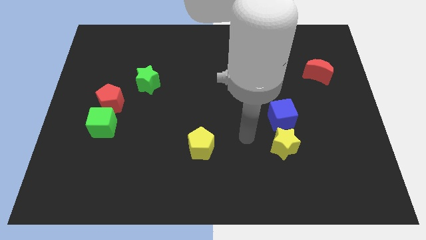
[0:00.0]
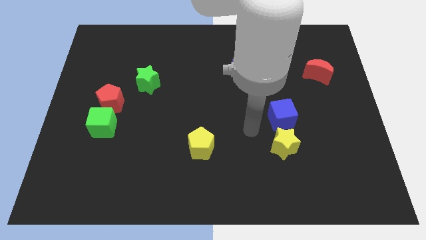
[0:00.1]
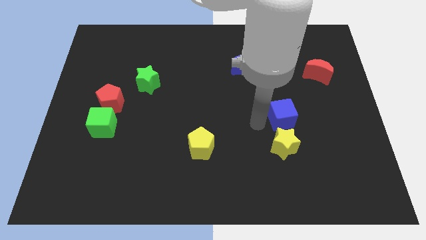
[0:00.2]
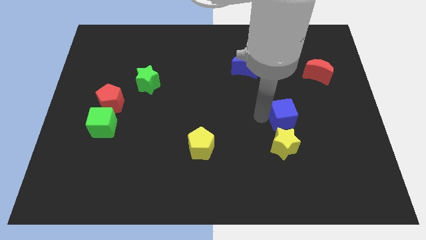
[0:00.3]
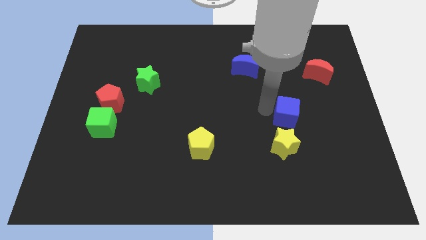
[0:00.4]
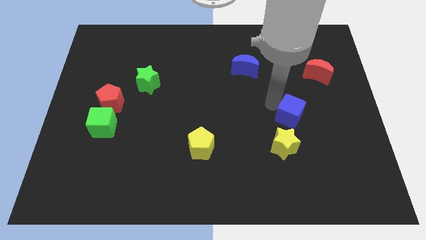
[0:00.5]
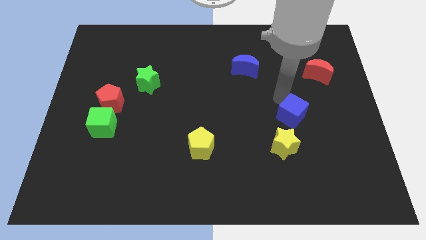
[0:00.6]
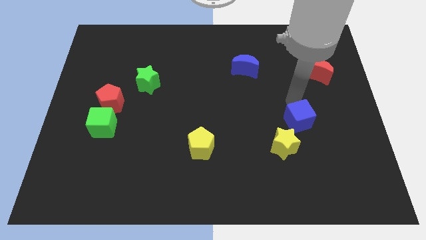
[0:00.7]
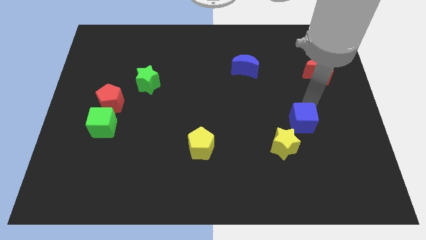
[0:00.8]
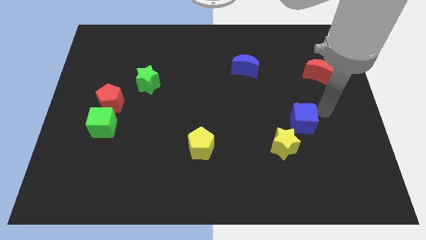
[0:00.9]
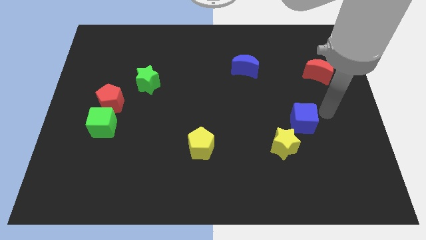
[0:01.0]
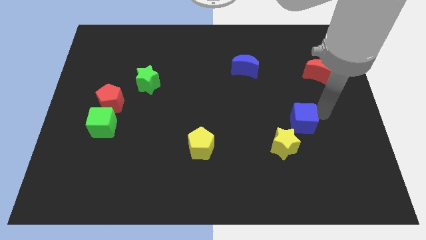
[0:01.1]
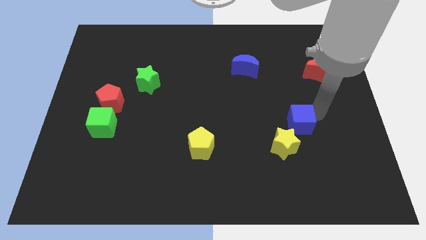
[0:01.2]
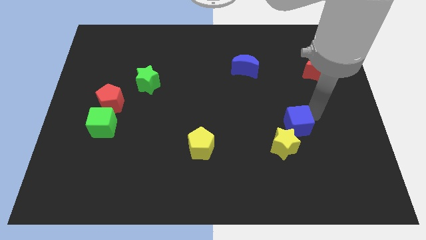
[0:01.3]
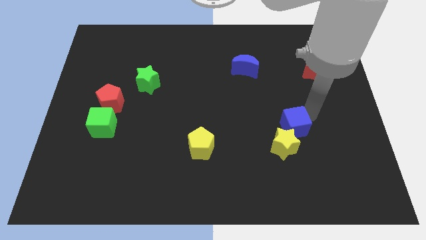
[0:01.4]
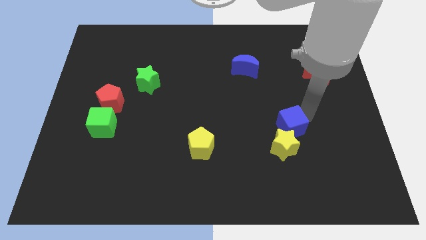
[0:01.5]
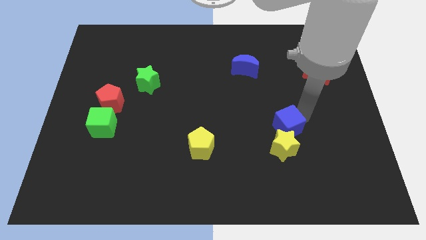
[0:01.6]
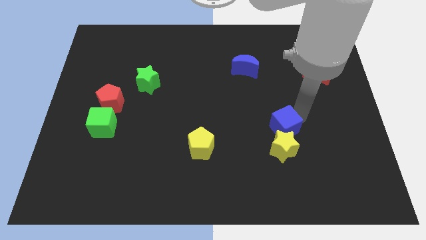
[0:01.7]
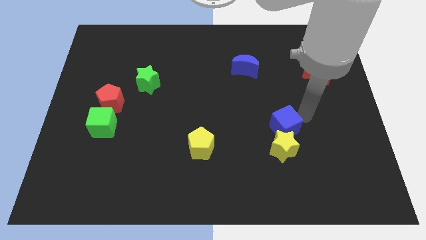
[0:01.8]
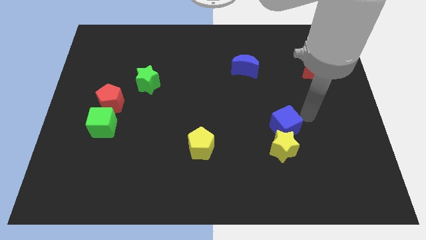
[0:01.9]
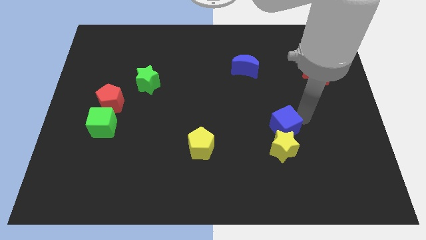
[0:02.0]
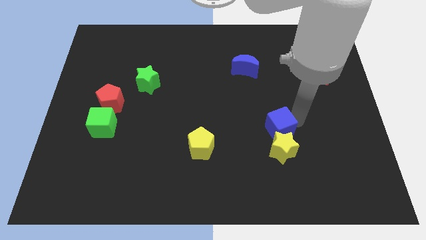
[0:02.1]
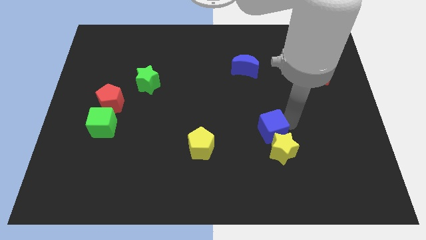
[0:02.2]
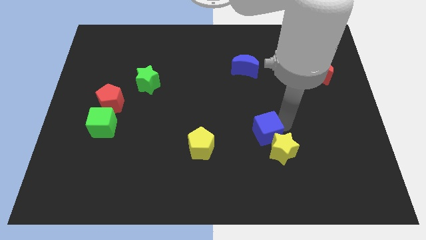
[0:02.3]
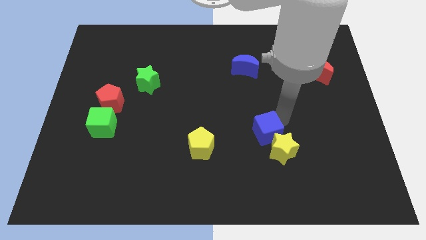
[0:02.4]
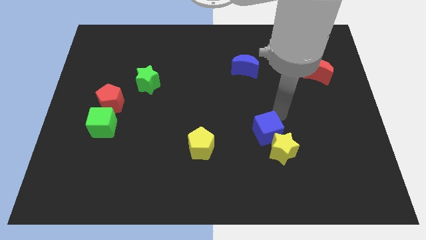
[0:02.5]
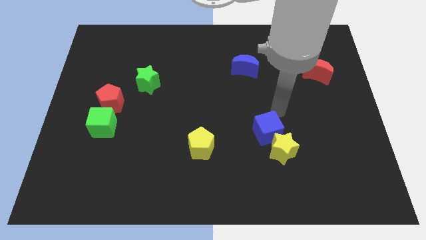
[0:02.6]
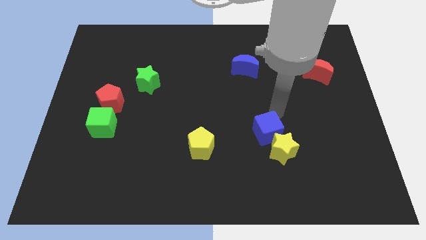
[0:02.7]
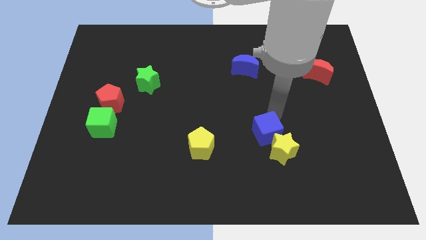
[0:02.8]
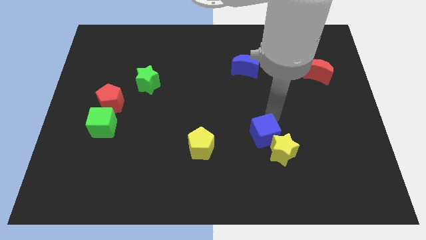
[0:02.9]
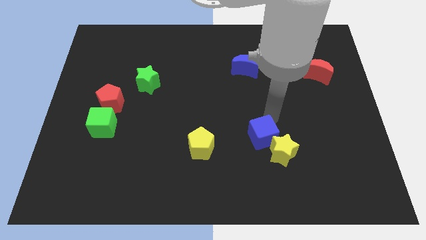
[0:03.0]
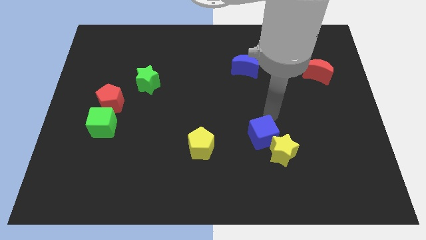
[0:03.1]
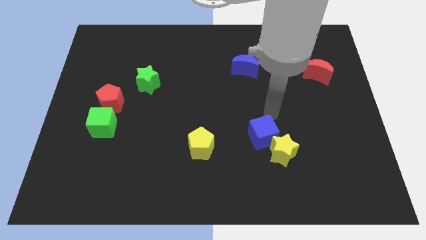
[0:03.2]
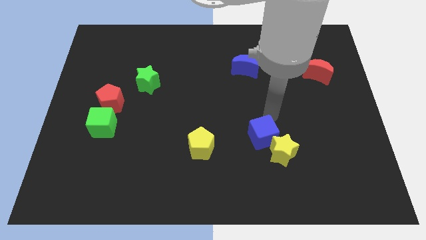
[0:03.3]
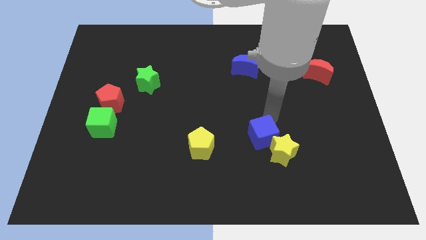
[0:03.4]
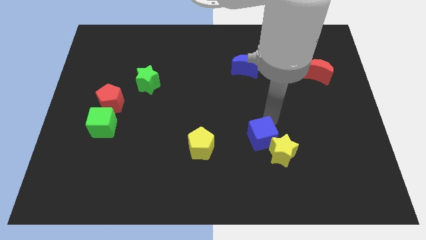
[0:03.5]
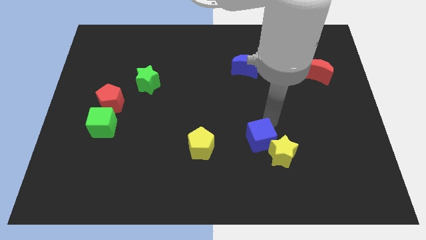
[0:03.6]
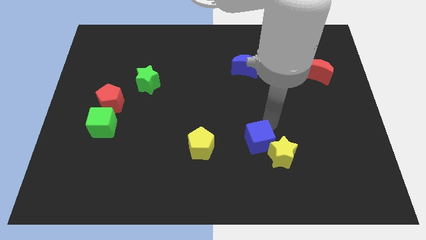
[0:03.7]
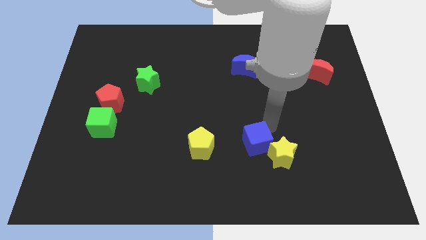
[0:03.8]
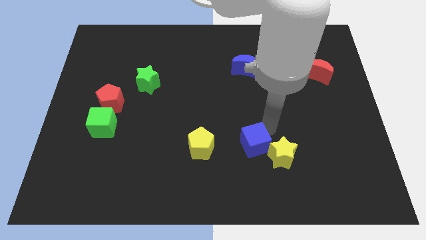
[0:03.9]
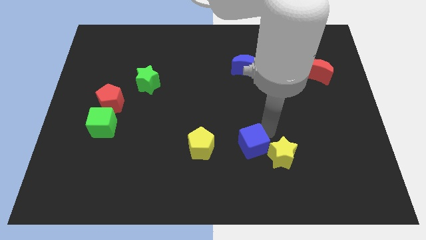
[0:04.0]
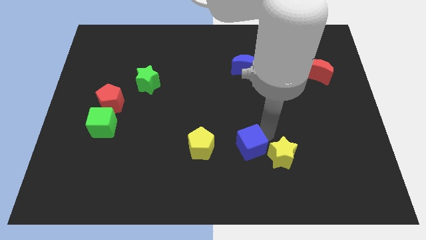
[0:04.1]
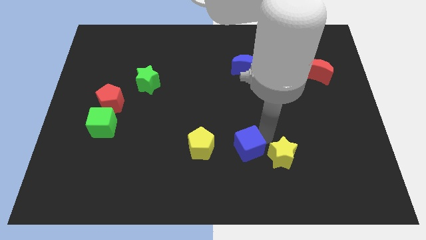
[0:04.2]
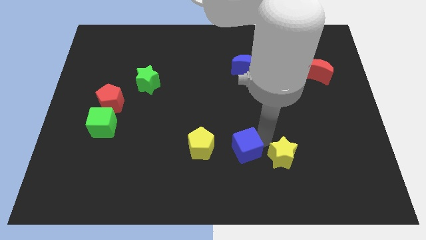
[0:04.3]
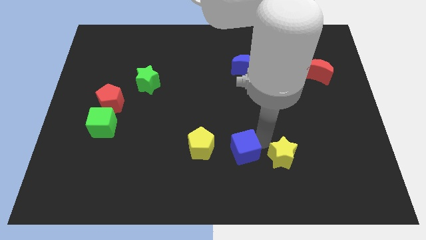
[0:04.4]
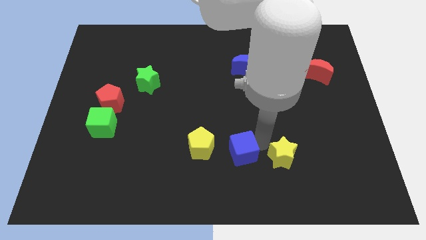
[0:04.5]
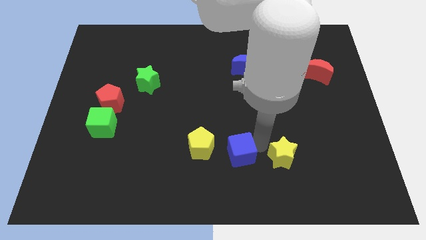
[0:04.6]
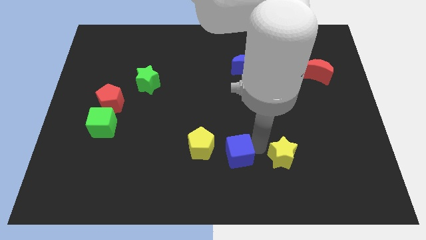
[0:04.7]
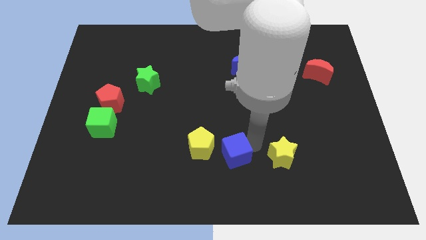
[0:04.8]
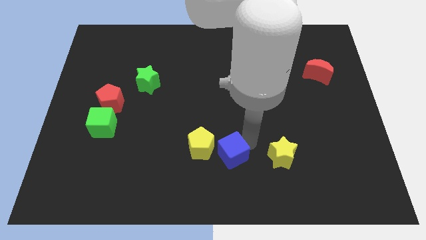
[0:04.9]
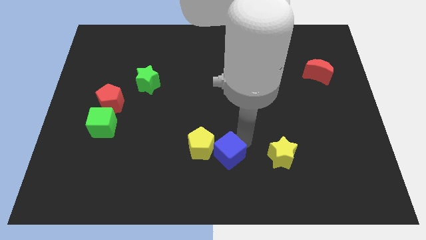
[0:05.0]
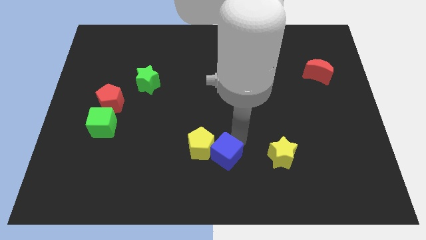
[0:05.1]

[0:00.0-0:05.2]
push the blue cube to the bottom side

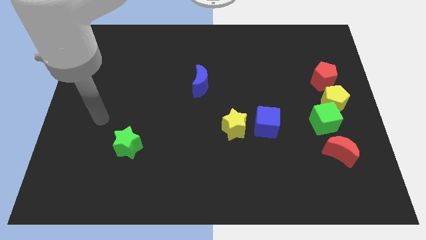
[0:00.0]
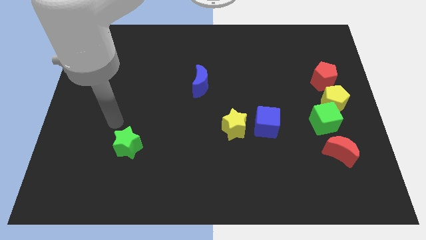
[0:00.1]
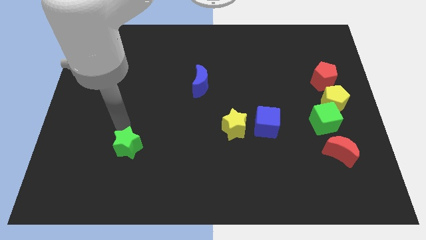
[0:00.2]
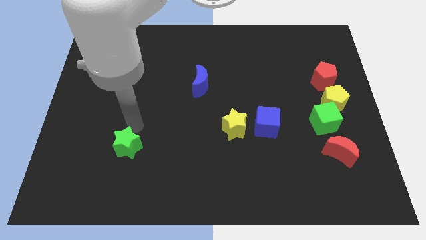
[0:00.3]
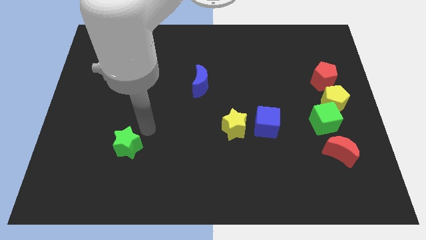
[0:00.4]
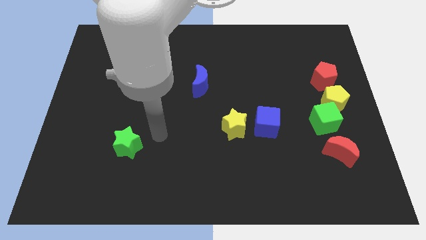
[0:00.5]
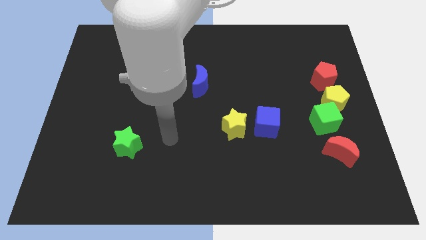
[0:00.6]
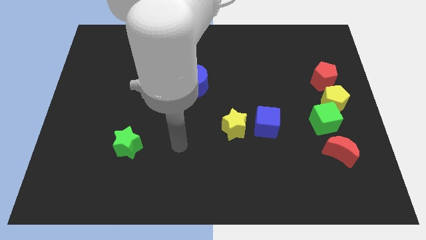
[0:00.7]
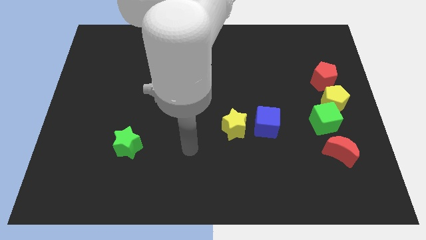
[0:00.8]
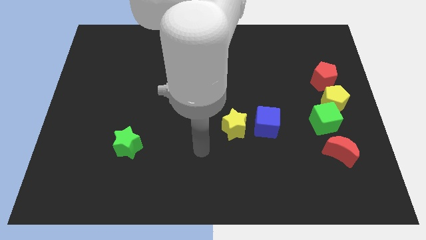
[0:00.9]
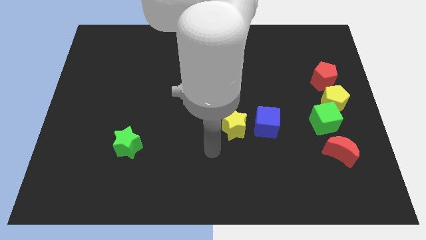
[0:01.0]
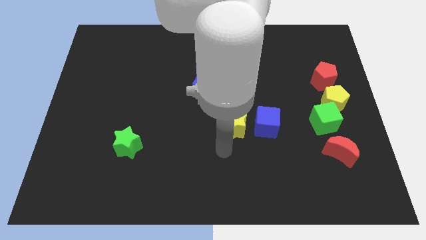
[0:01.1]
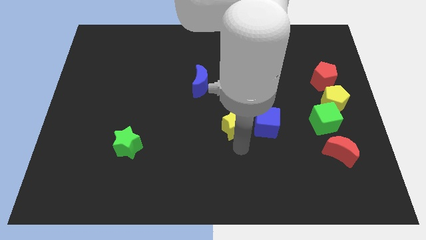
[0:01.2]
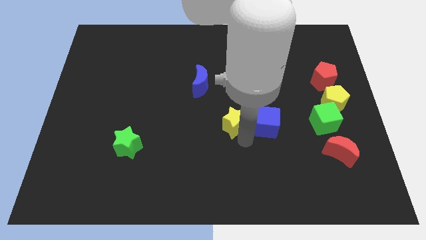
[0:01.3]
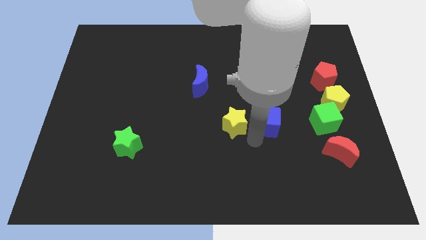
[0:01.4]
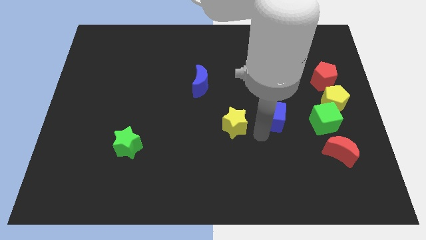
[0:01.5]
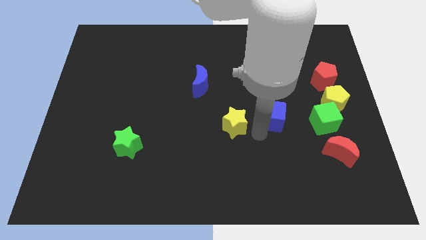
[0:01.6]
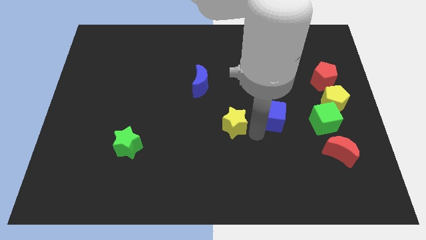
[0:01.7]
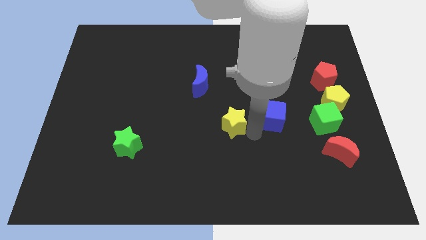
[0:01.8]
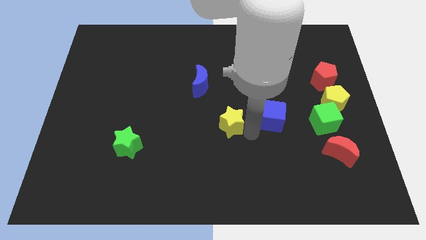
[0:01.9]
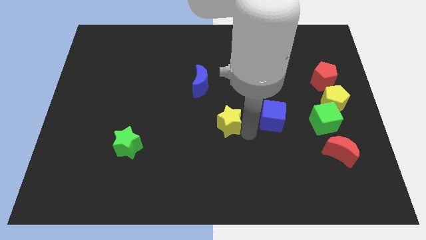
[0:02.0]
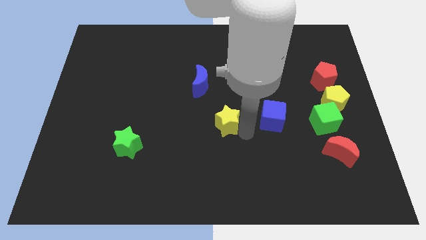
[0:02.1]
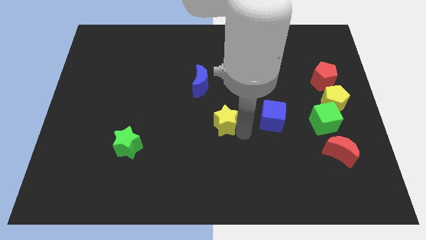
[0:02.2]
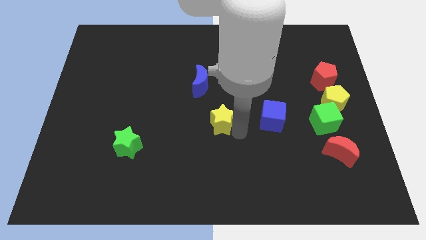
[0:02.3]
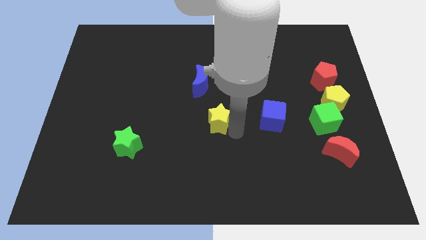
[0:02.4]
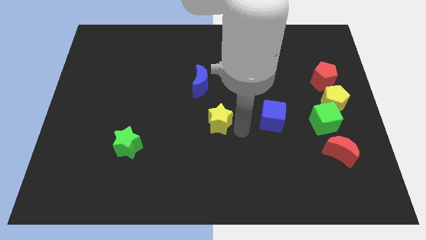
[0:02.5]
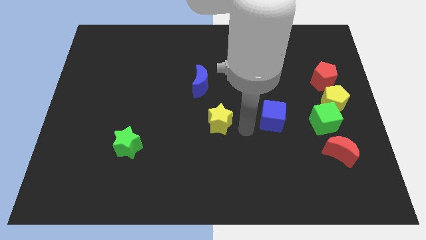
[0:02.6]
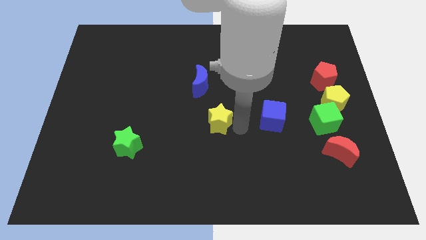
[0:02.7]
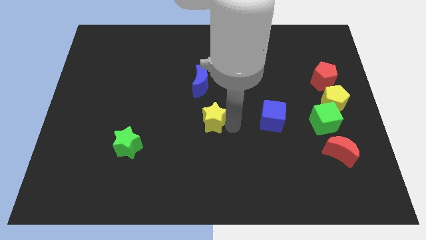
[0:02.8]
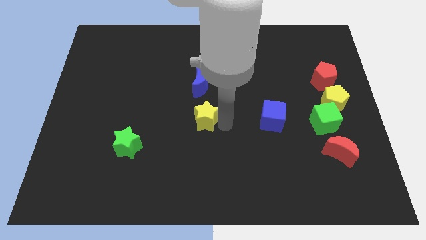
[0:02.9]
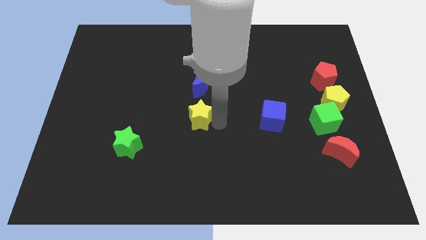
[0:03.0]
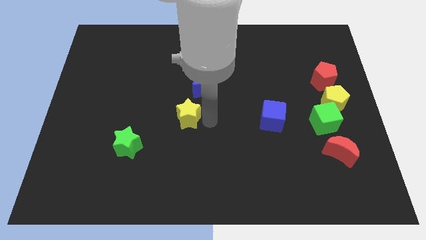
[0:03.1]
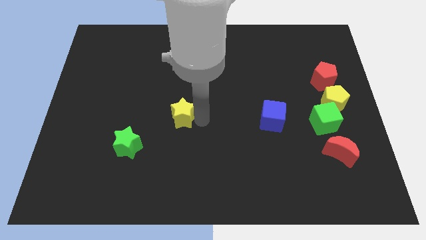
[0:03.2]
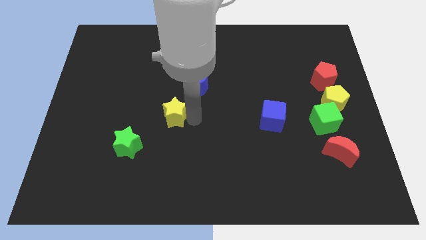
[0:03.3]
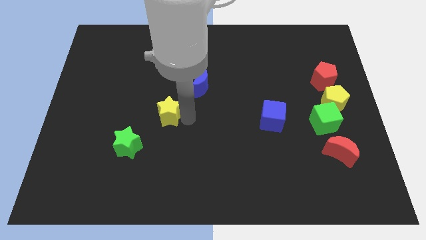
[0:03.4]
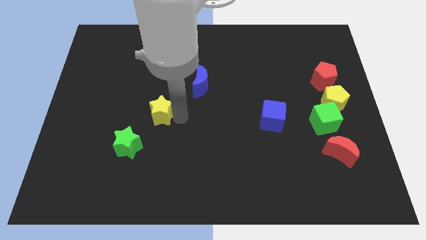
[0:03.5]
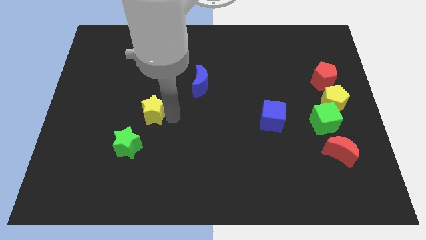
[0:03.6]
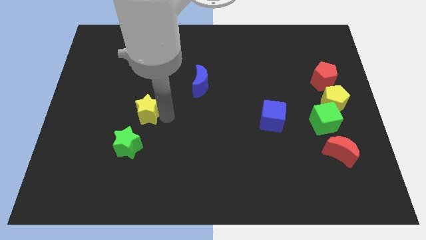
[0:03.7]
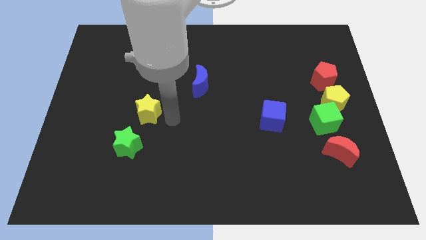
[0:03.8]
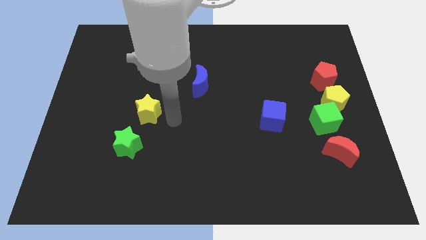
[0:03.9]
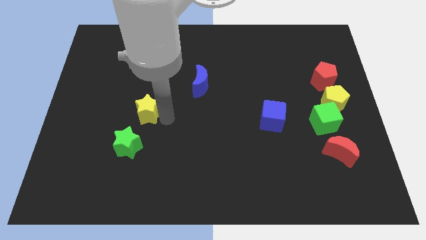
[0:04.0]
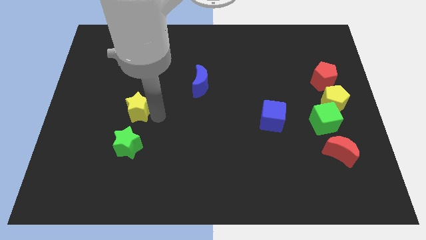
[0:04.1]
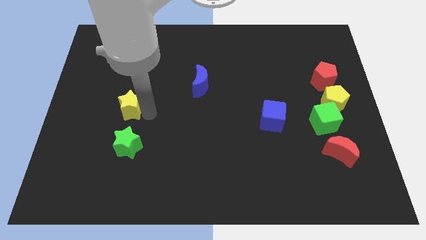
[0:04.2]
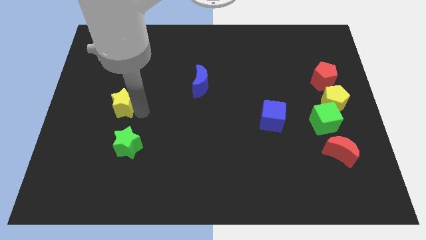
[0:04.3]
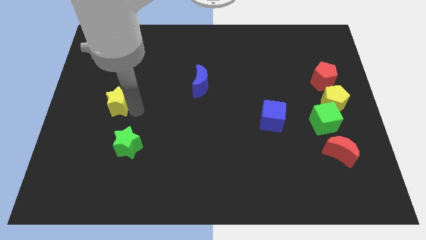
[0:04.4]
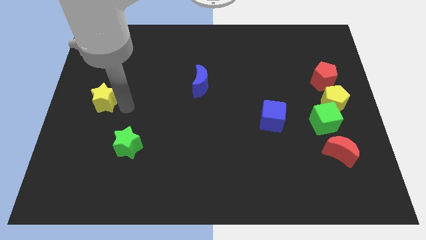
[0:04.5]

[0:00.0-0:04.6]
move the yellow star to the left side of the board
